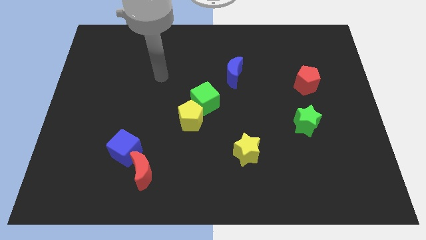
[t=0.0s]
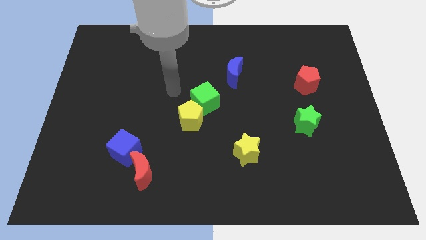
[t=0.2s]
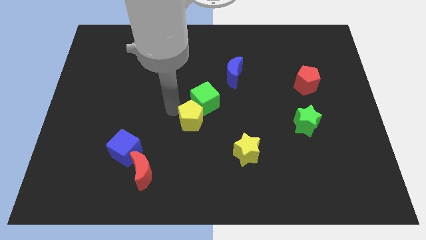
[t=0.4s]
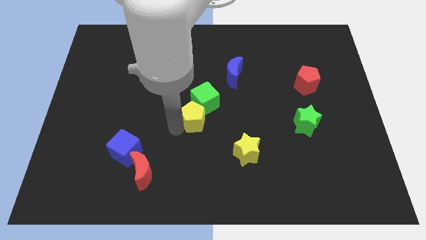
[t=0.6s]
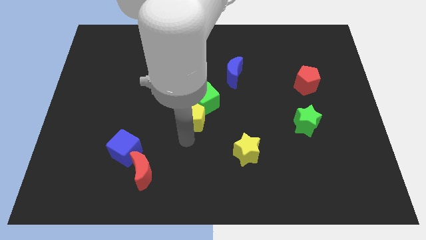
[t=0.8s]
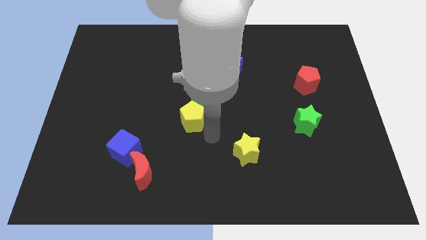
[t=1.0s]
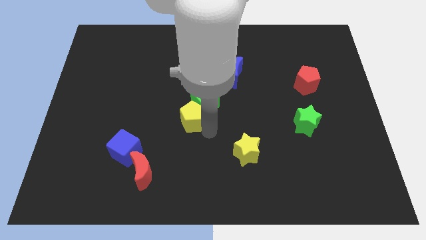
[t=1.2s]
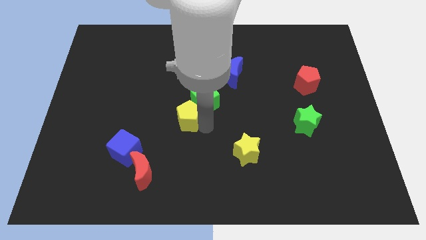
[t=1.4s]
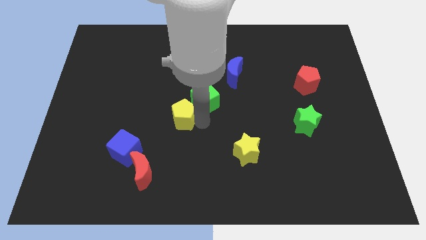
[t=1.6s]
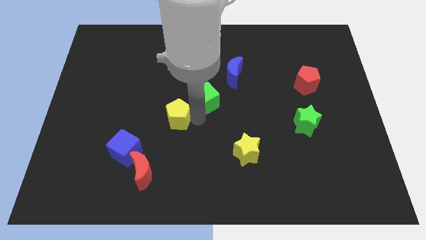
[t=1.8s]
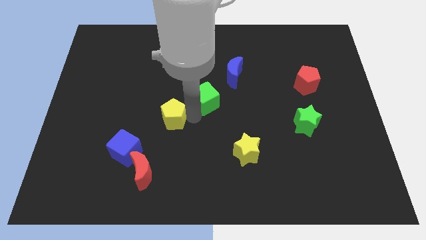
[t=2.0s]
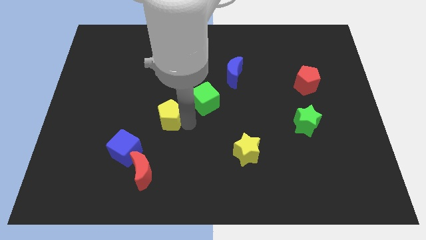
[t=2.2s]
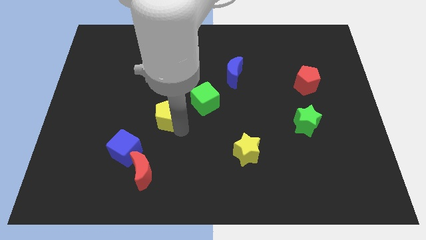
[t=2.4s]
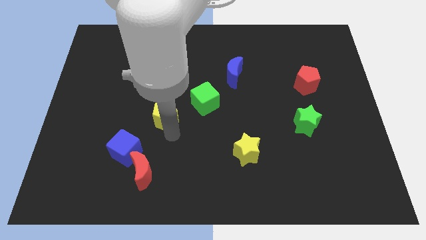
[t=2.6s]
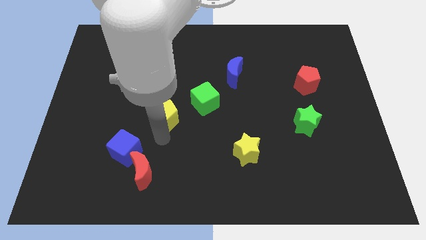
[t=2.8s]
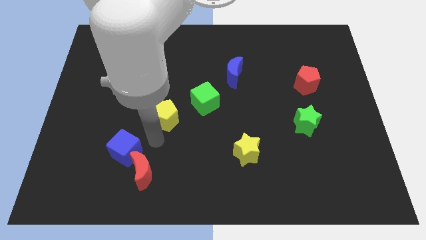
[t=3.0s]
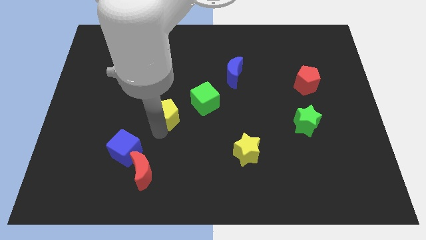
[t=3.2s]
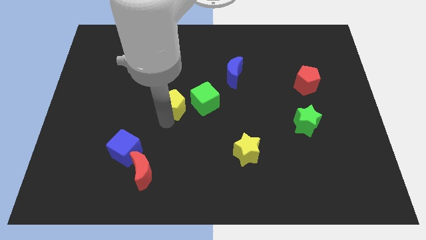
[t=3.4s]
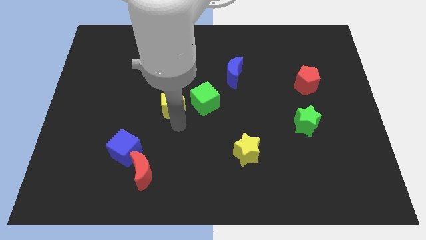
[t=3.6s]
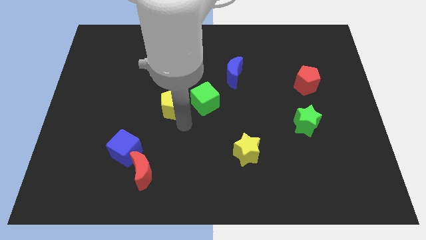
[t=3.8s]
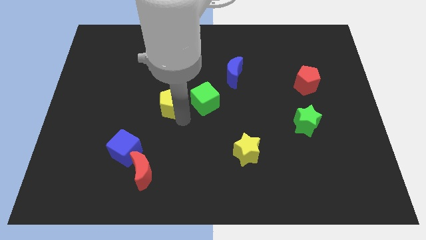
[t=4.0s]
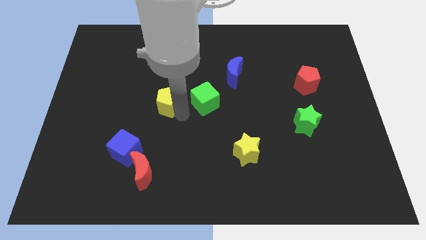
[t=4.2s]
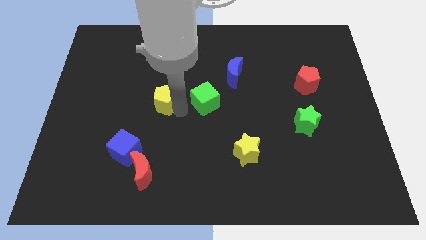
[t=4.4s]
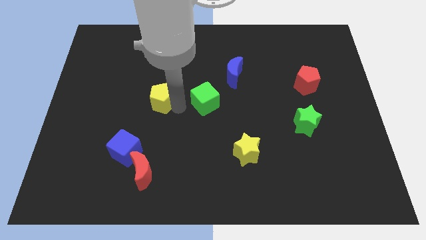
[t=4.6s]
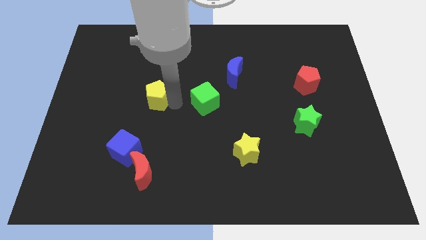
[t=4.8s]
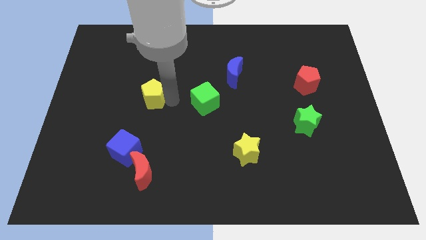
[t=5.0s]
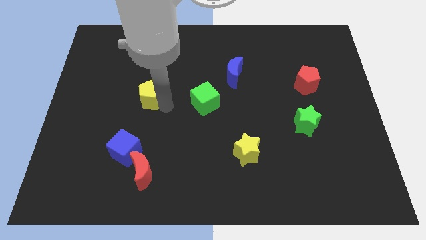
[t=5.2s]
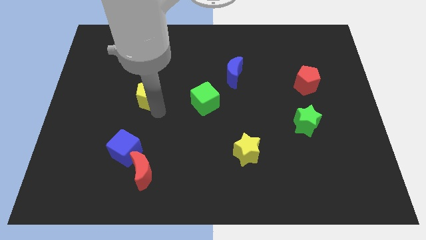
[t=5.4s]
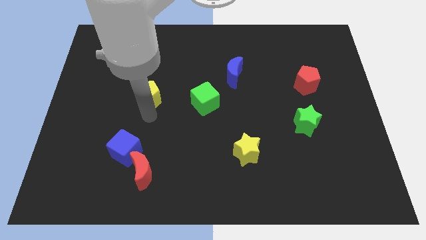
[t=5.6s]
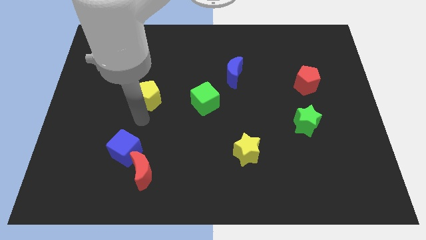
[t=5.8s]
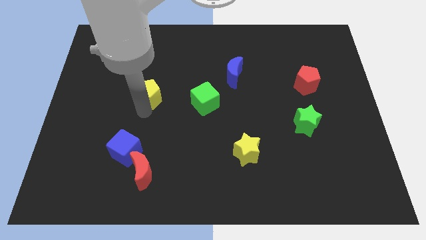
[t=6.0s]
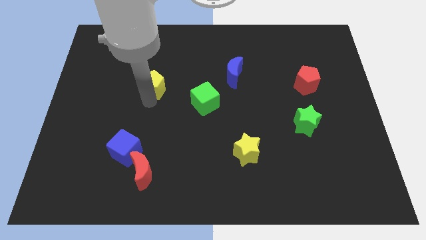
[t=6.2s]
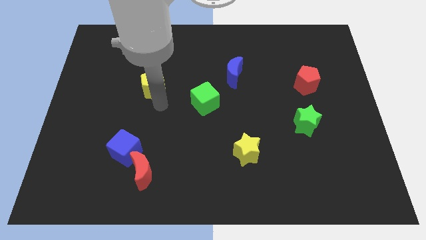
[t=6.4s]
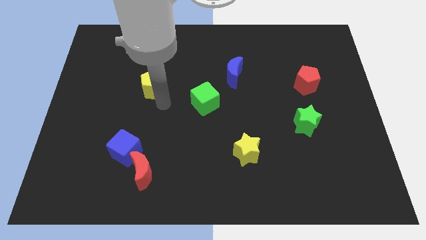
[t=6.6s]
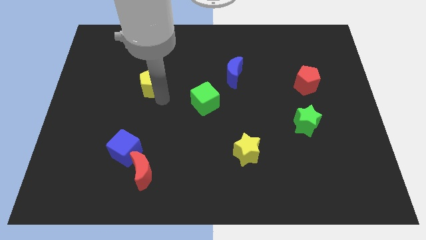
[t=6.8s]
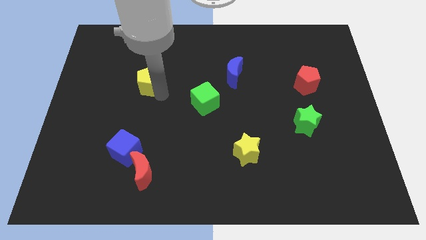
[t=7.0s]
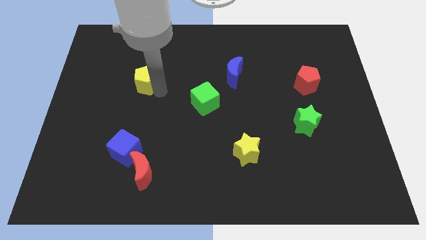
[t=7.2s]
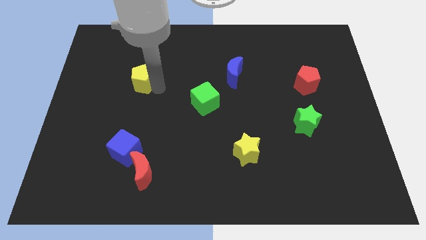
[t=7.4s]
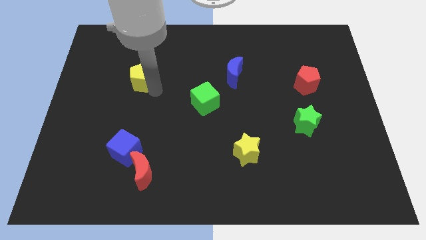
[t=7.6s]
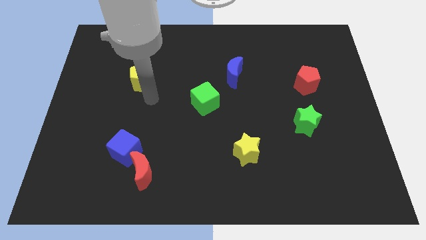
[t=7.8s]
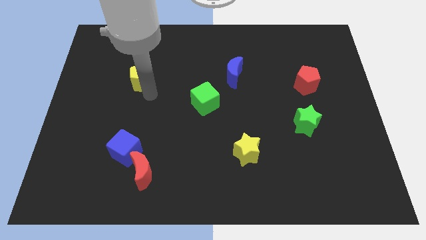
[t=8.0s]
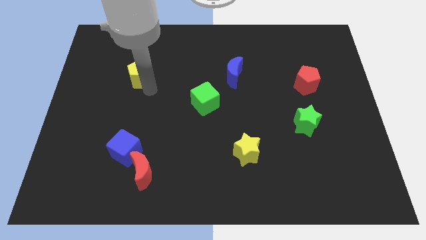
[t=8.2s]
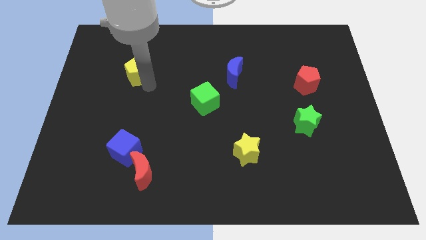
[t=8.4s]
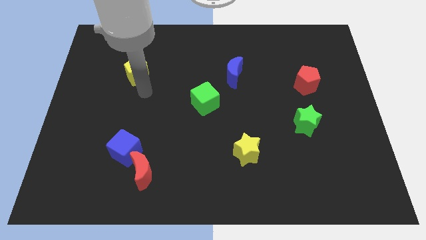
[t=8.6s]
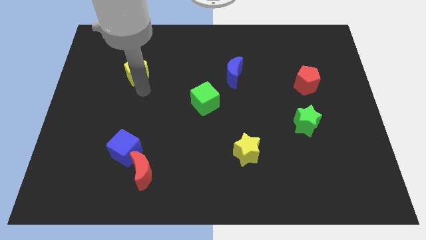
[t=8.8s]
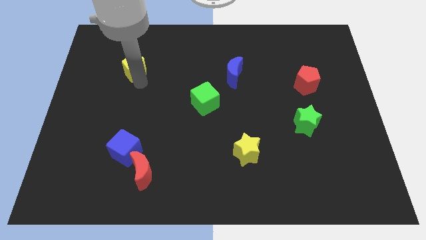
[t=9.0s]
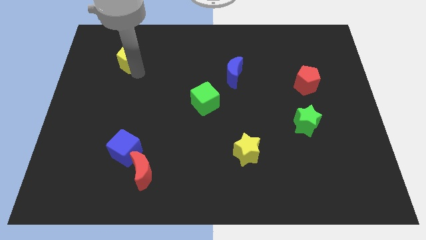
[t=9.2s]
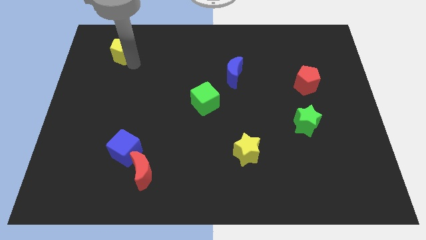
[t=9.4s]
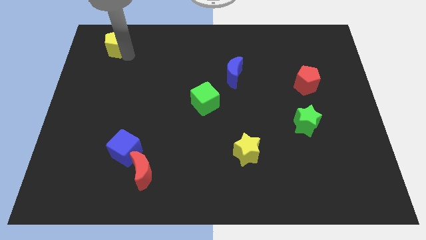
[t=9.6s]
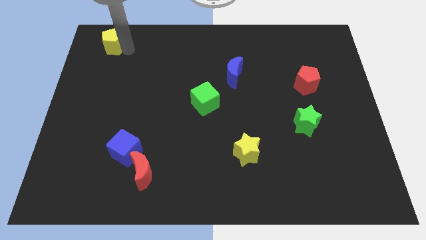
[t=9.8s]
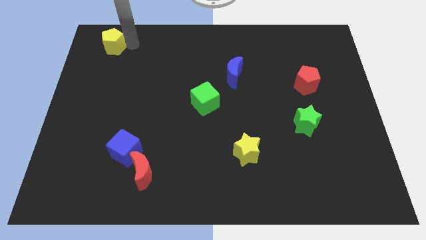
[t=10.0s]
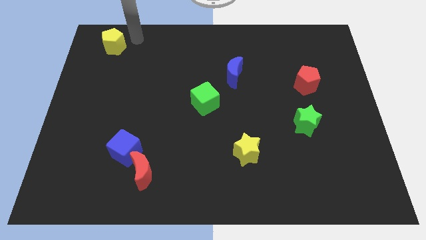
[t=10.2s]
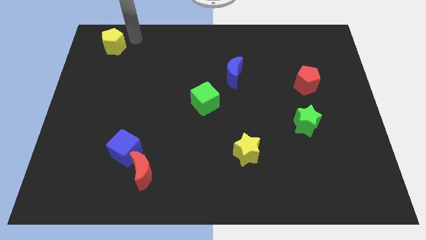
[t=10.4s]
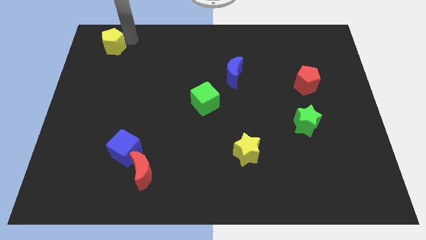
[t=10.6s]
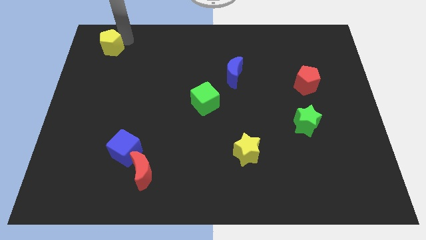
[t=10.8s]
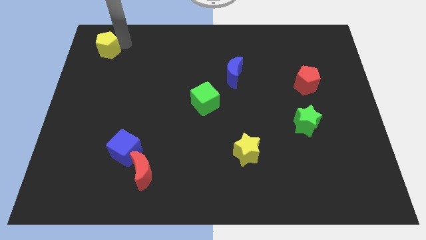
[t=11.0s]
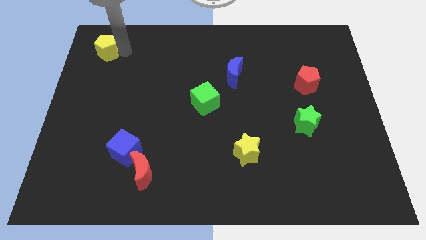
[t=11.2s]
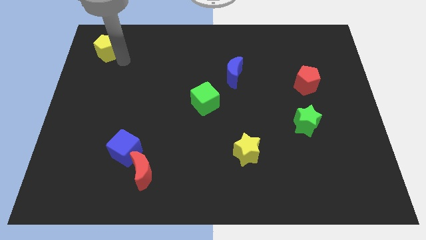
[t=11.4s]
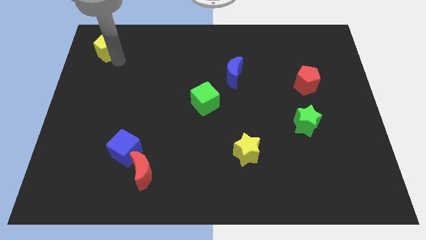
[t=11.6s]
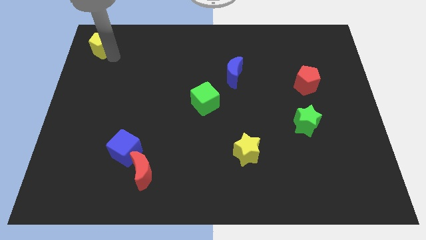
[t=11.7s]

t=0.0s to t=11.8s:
put the yellow pentagon to the top left of the board

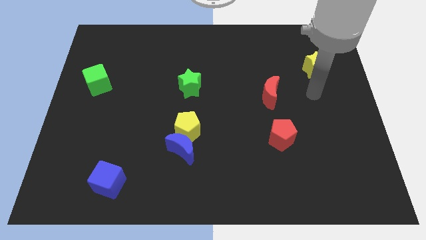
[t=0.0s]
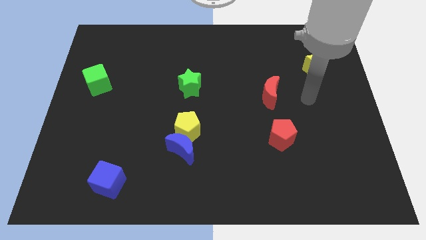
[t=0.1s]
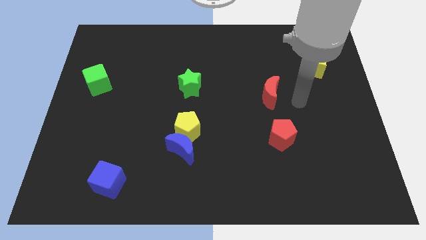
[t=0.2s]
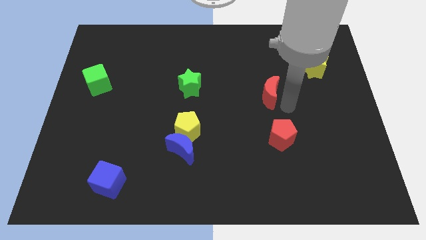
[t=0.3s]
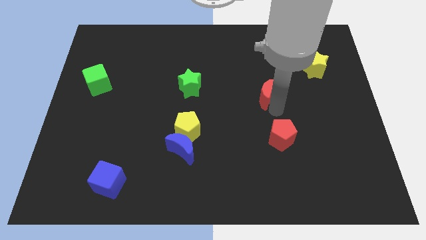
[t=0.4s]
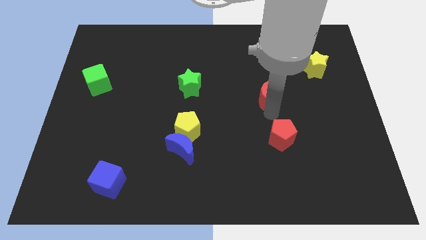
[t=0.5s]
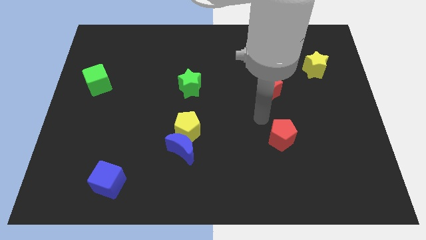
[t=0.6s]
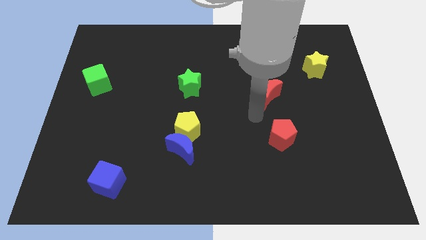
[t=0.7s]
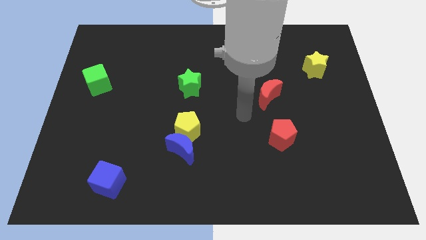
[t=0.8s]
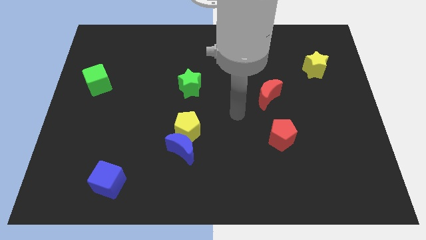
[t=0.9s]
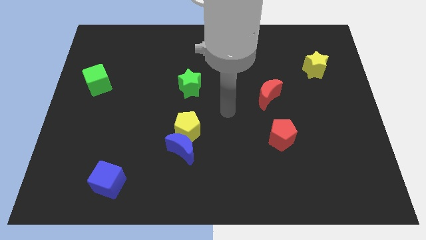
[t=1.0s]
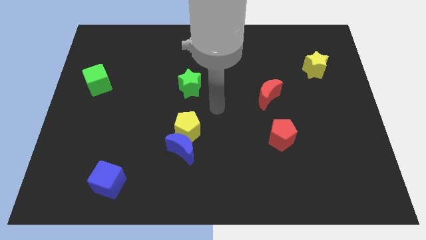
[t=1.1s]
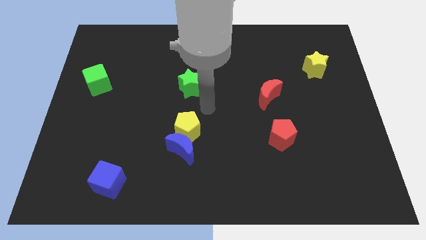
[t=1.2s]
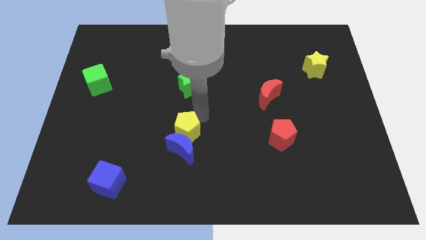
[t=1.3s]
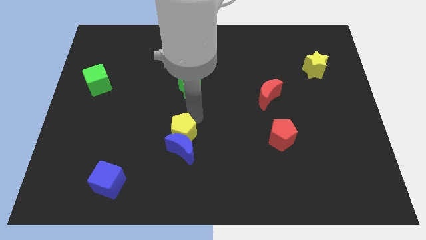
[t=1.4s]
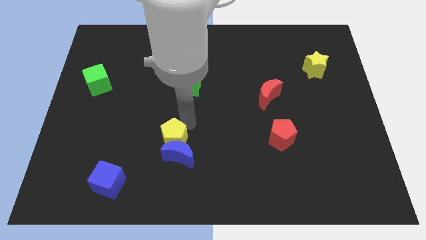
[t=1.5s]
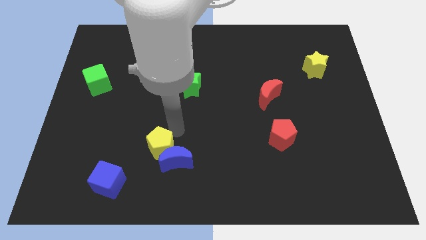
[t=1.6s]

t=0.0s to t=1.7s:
push the blue moon to the bottom side
